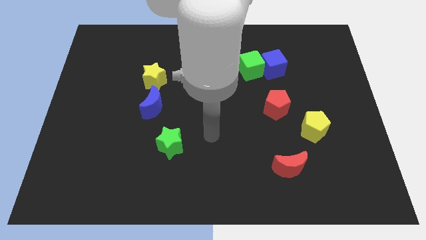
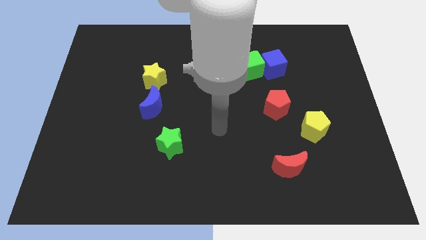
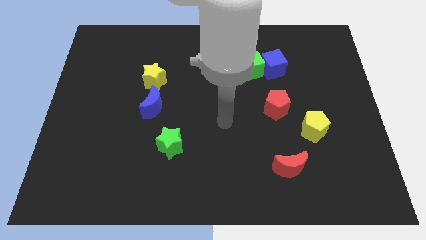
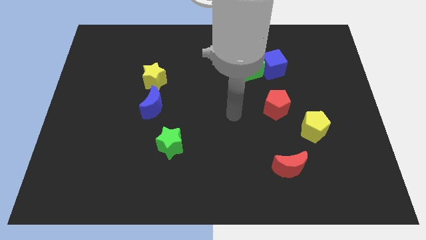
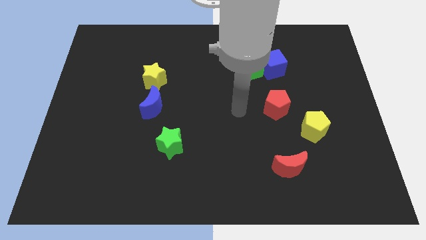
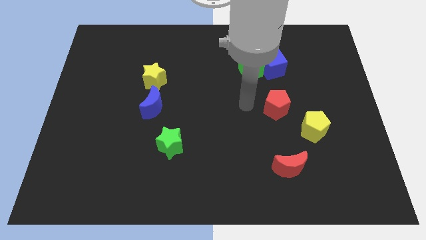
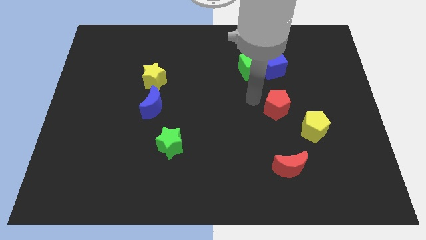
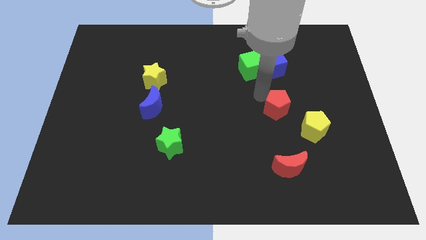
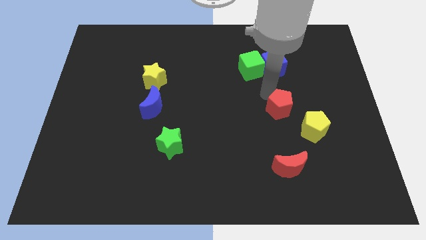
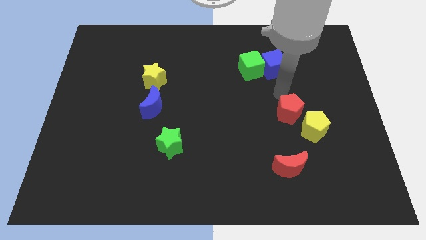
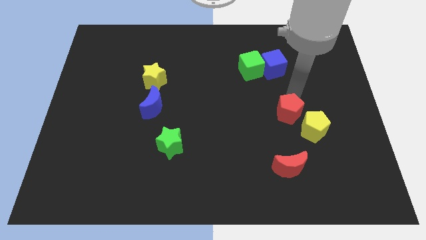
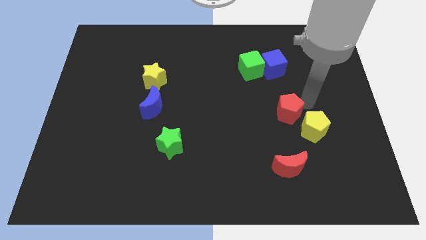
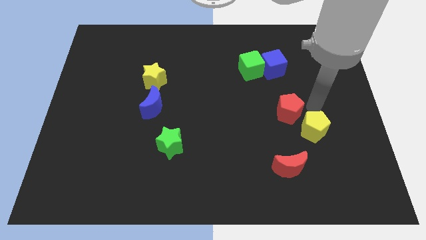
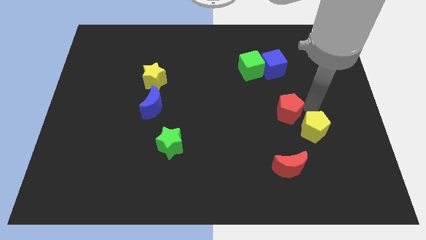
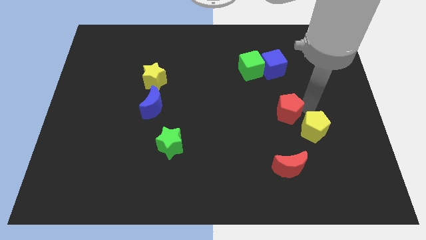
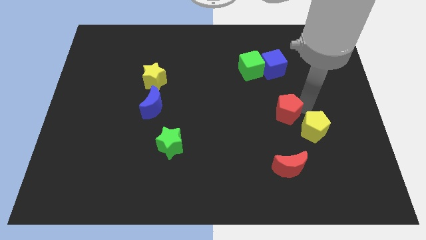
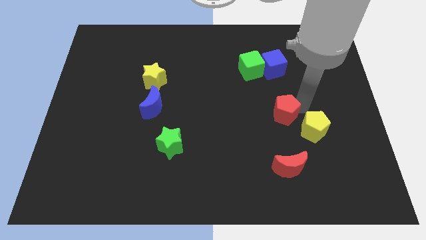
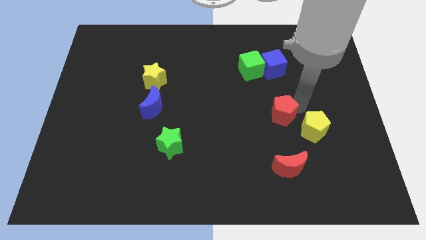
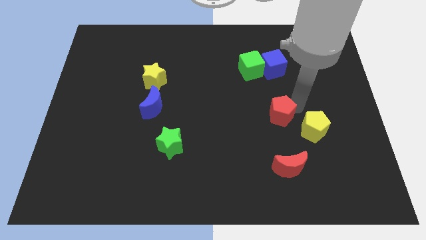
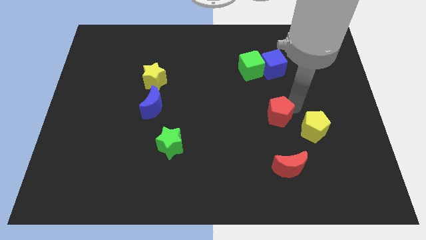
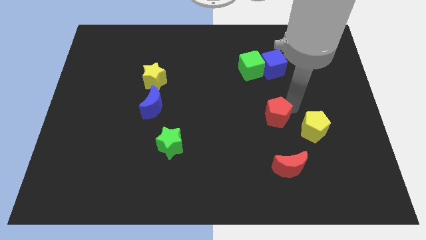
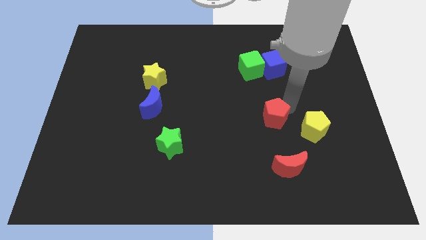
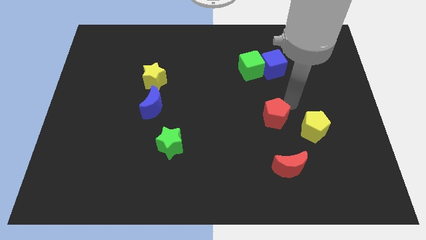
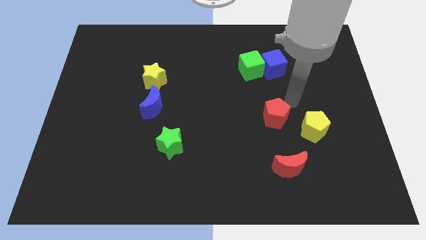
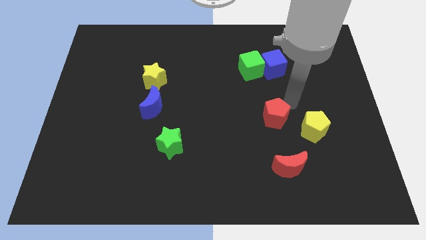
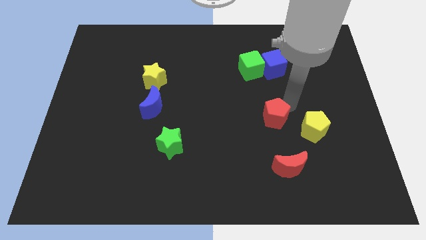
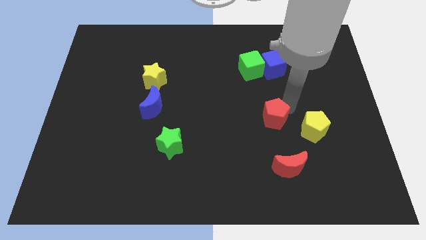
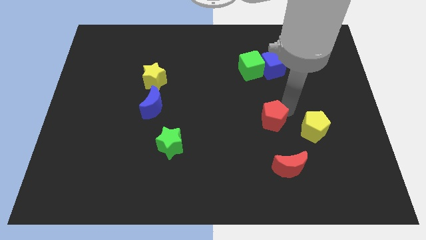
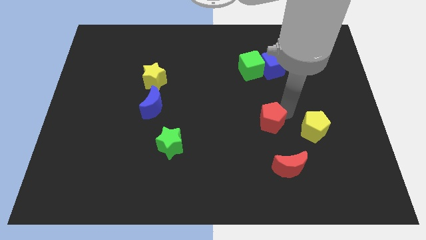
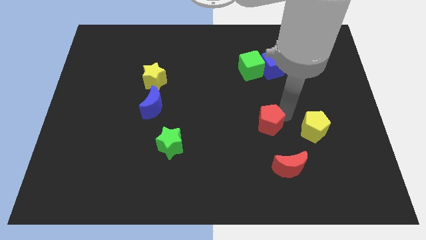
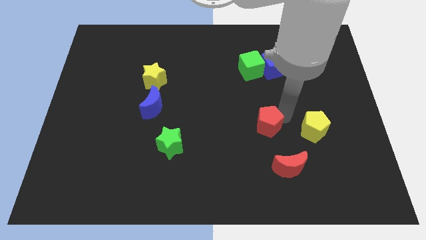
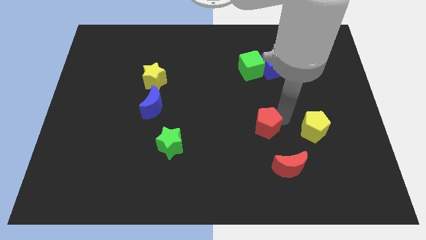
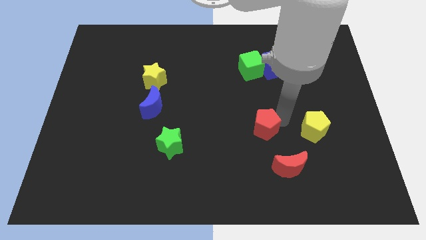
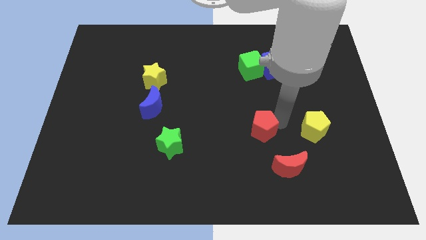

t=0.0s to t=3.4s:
slightly slide the red pentagon down and left diagonally

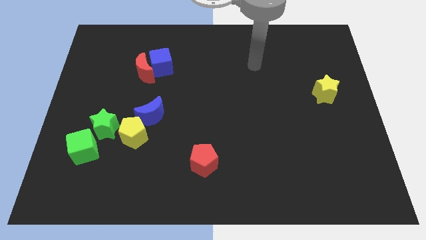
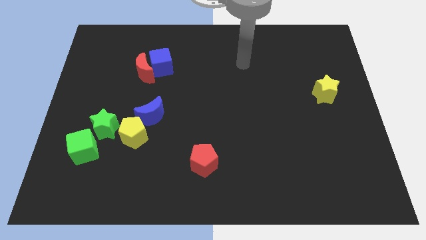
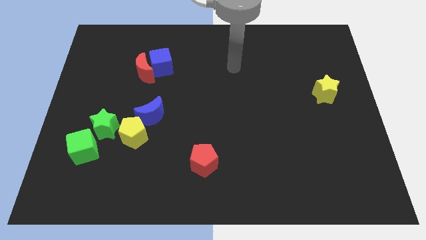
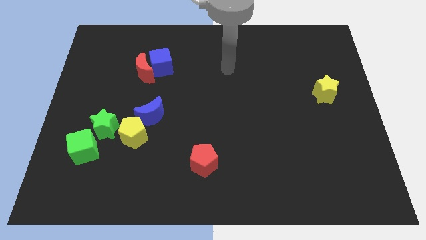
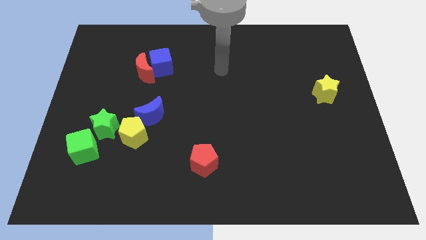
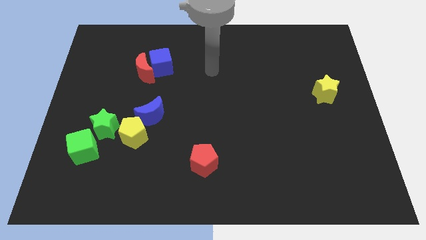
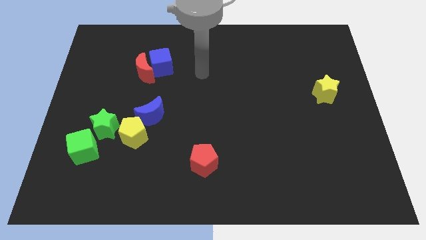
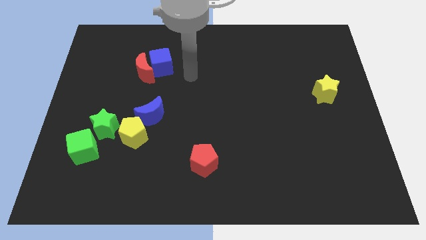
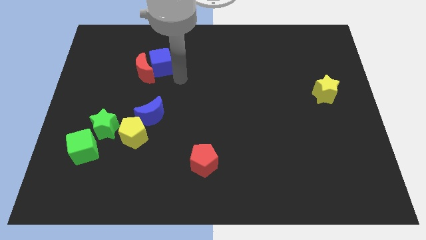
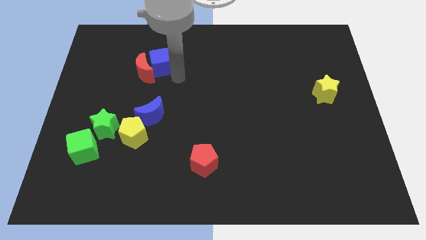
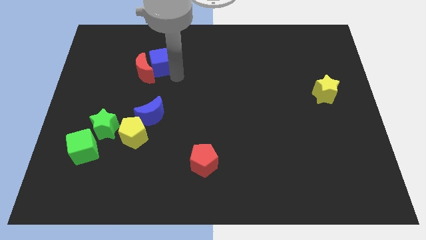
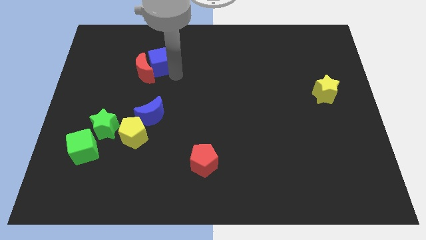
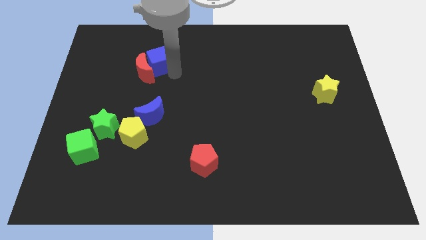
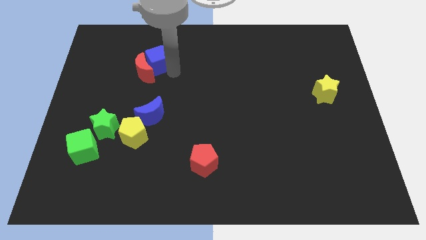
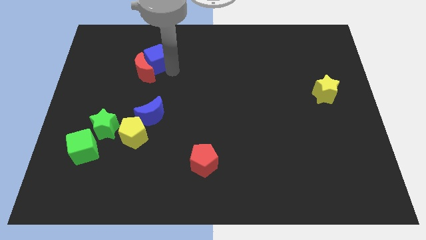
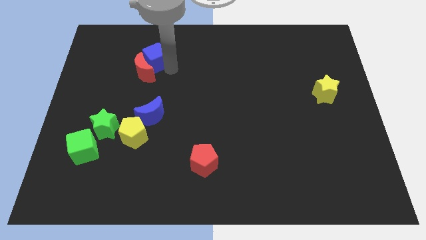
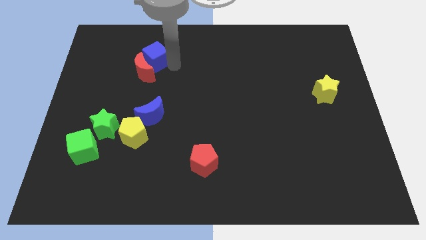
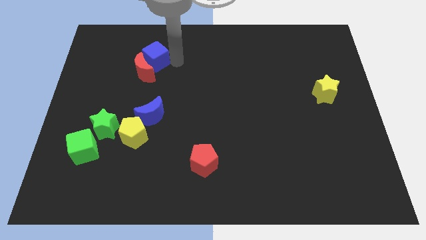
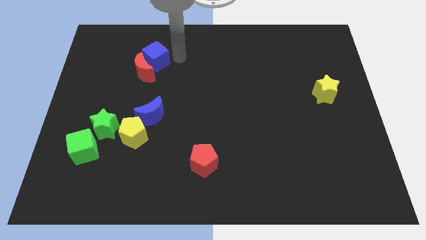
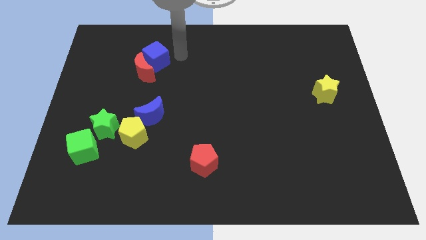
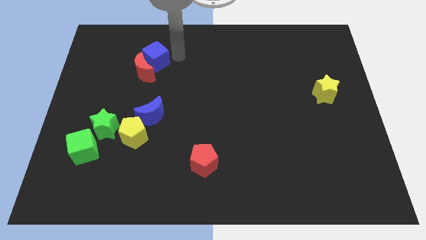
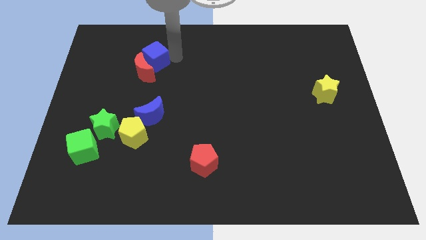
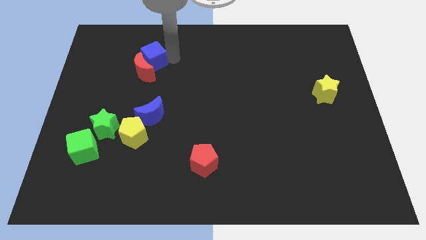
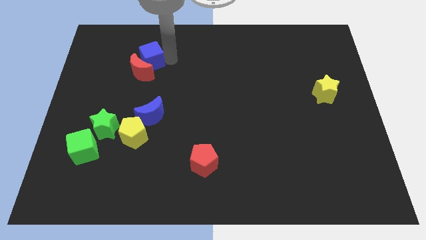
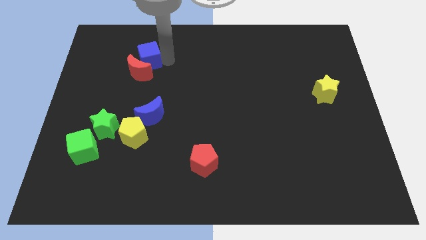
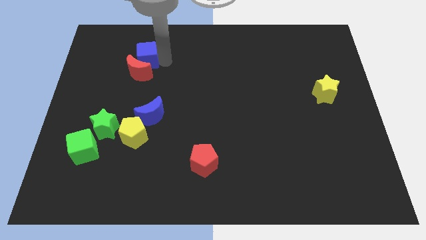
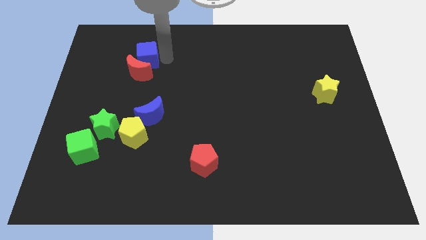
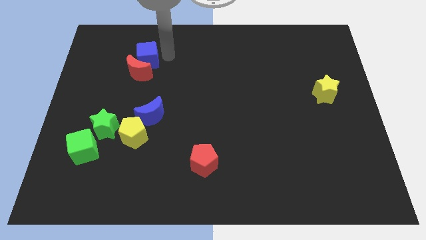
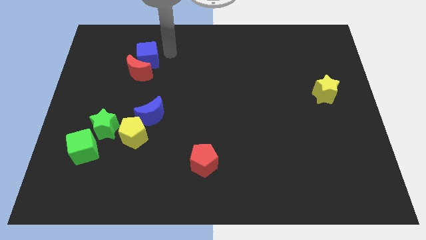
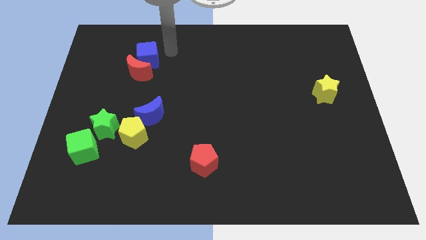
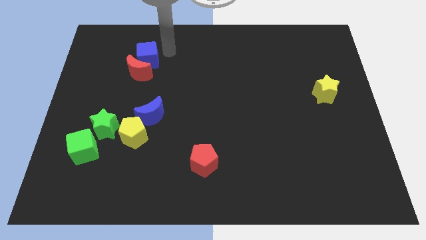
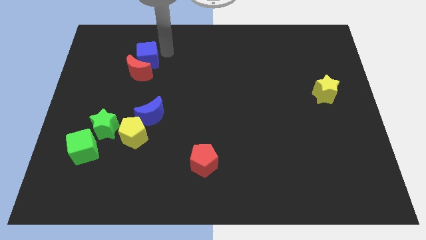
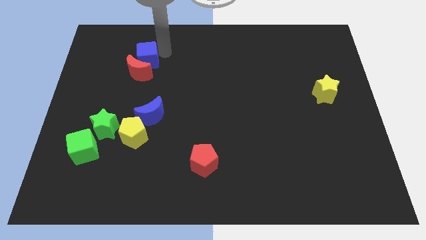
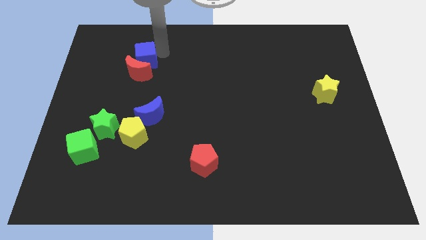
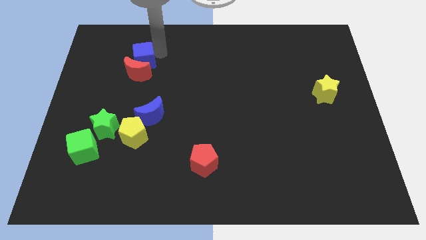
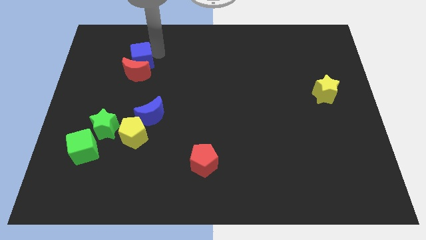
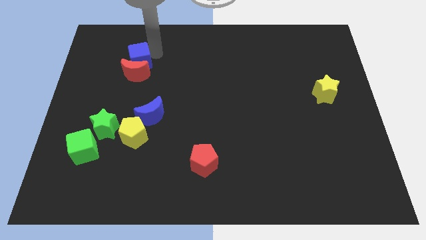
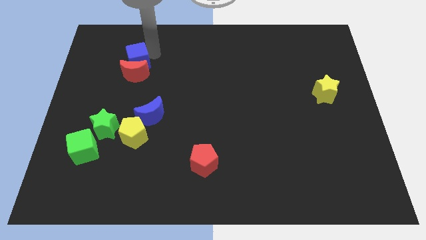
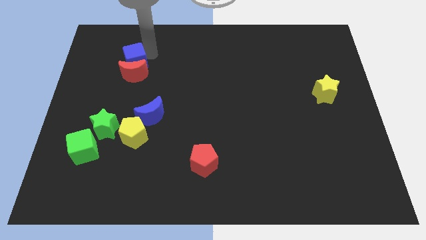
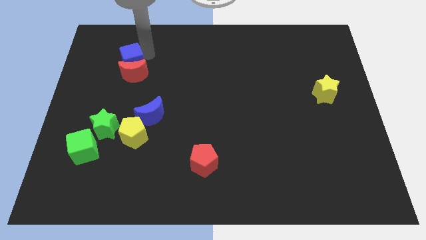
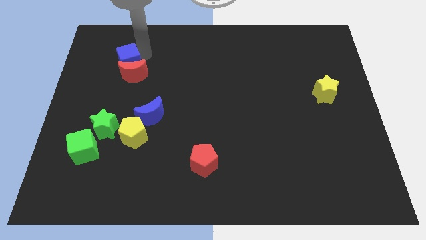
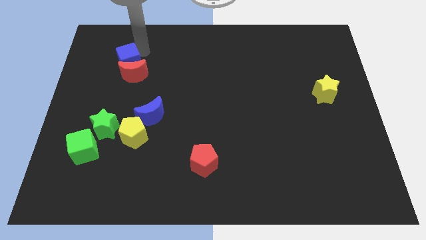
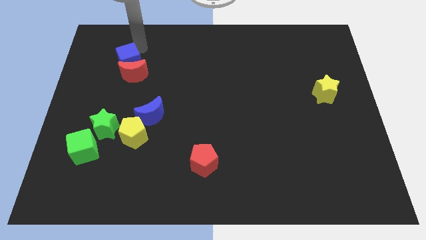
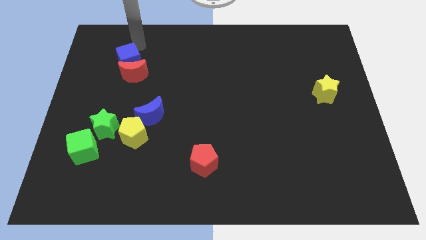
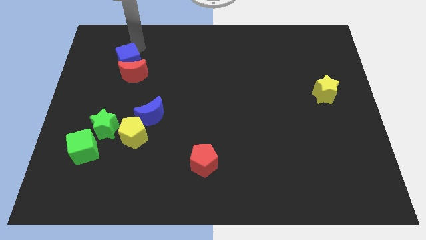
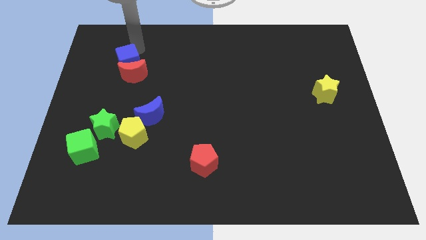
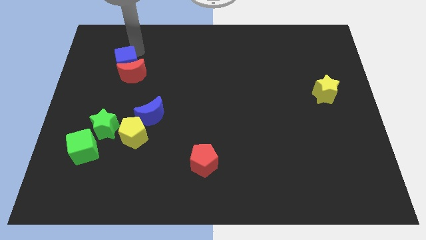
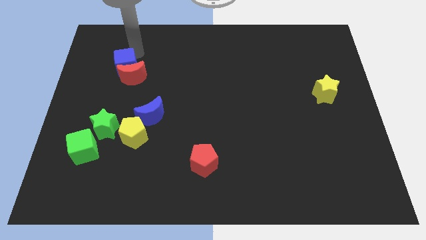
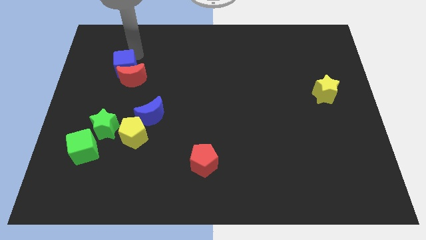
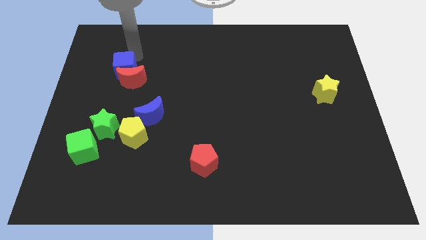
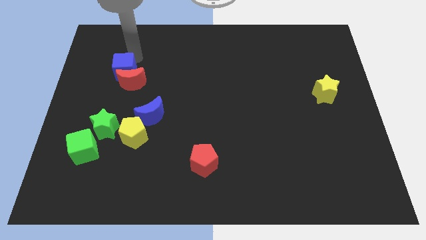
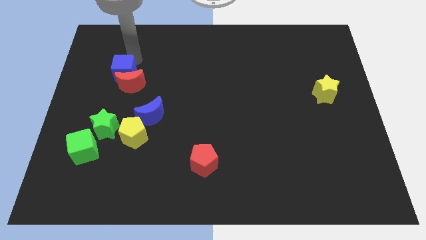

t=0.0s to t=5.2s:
slide the blue cube down and left diagonally somewhat
